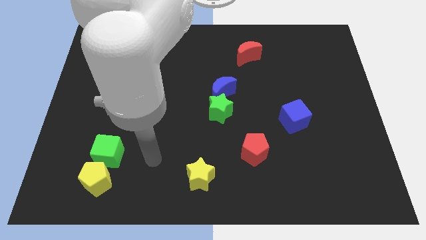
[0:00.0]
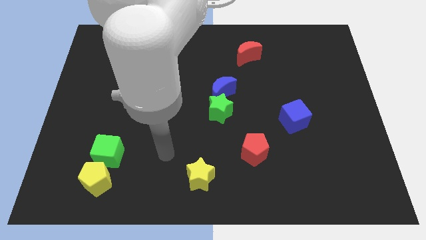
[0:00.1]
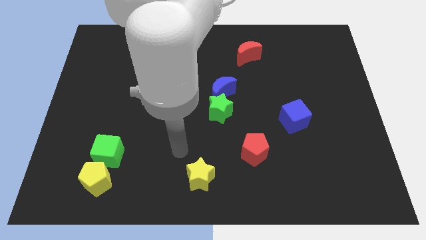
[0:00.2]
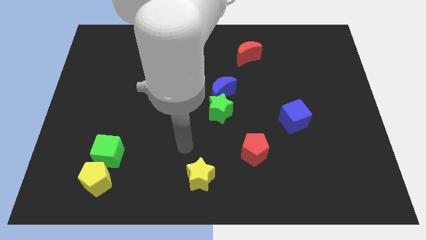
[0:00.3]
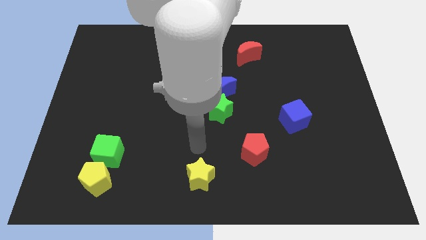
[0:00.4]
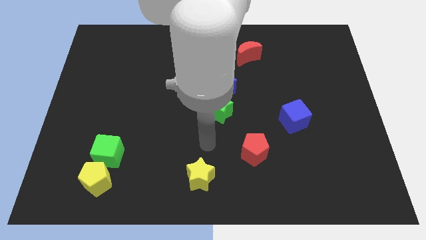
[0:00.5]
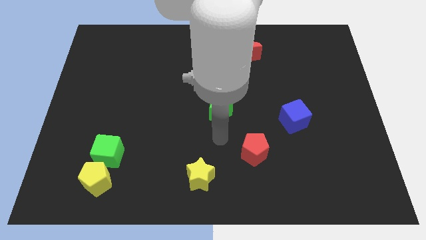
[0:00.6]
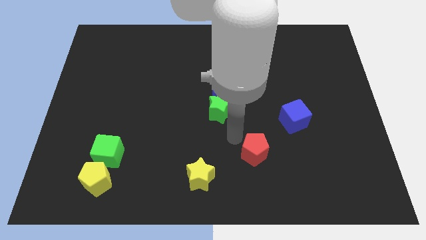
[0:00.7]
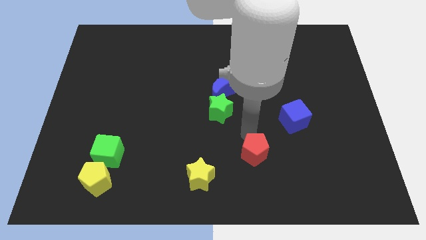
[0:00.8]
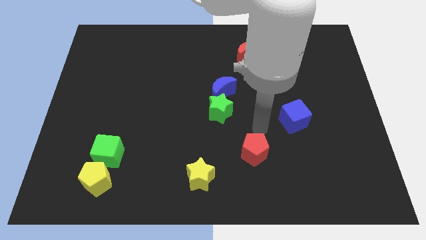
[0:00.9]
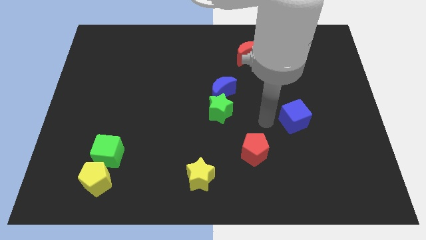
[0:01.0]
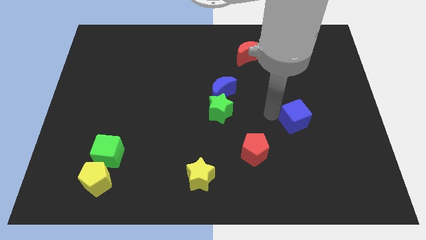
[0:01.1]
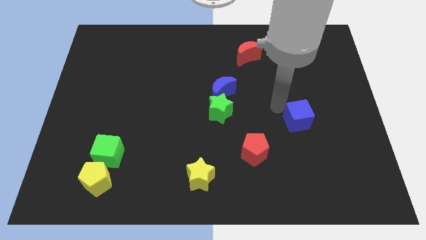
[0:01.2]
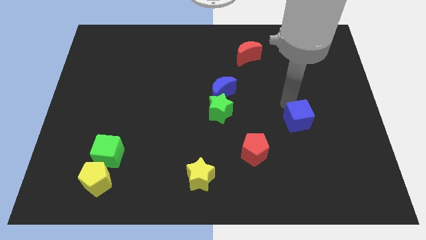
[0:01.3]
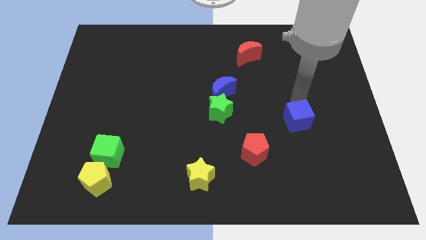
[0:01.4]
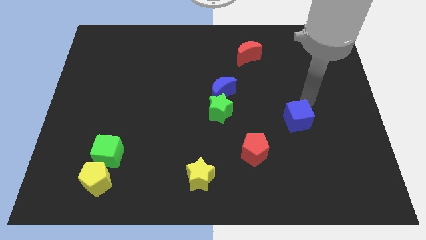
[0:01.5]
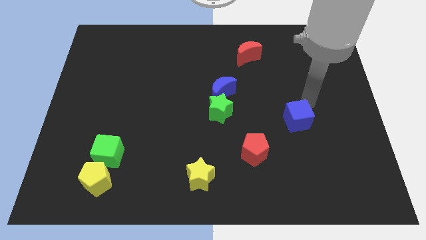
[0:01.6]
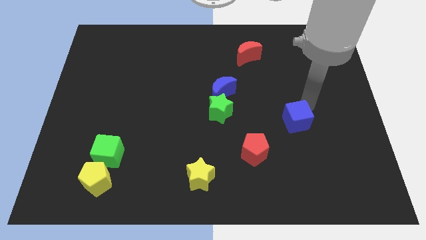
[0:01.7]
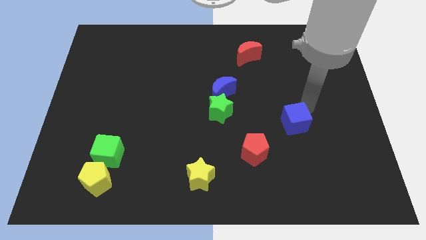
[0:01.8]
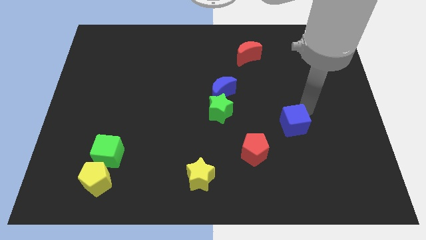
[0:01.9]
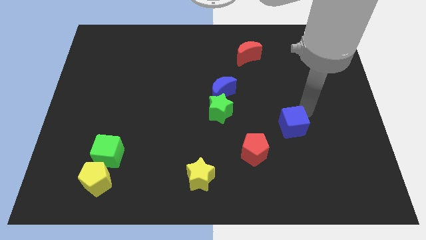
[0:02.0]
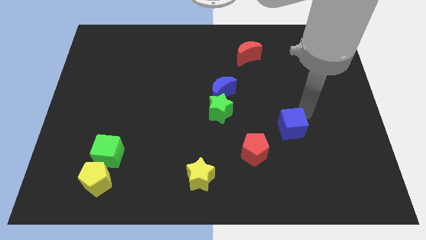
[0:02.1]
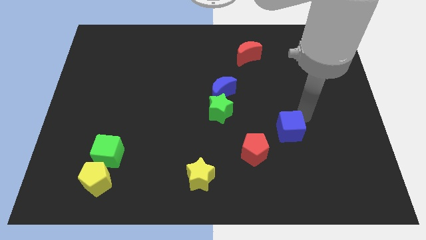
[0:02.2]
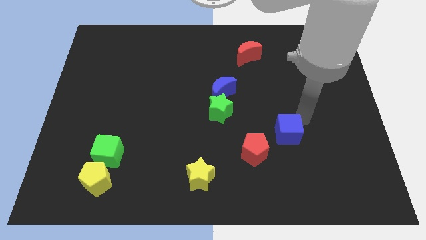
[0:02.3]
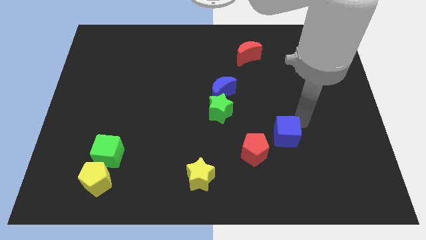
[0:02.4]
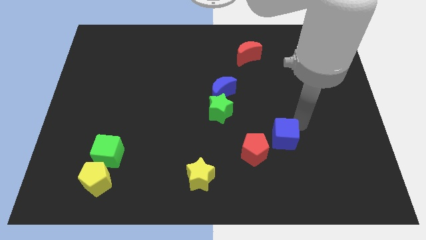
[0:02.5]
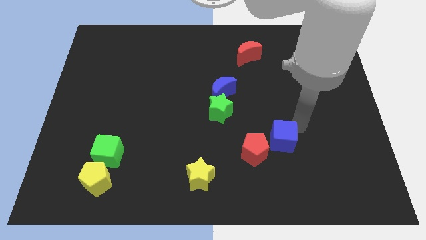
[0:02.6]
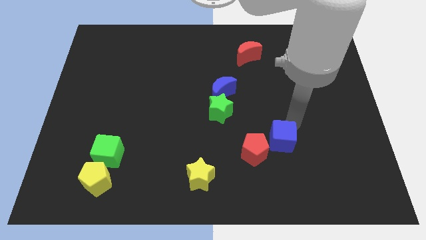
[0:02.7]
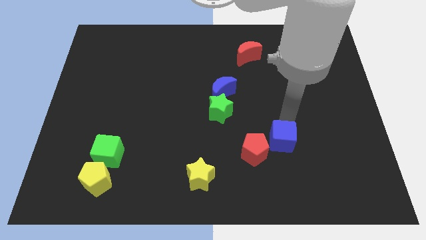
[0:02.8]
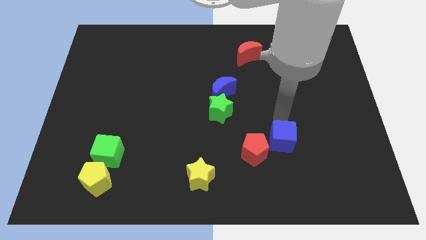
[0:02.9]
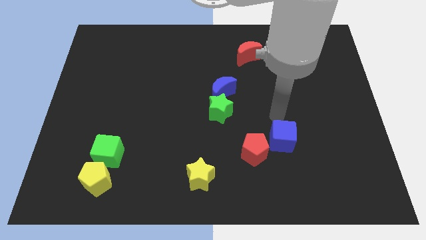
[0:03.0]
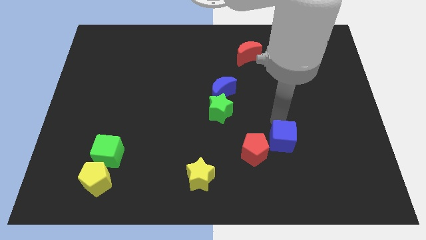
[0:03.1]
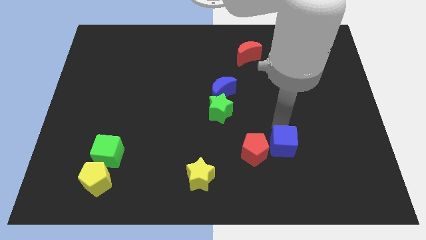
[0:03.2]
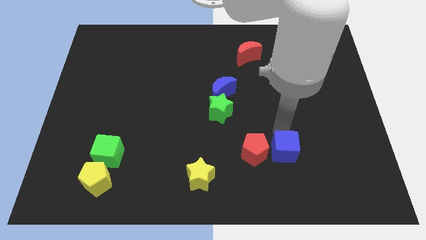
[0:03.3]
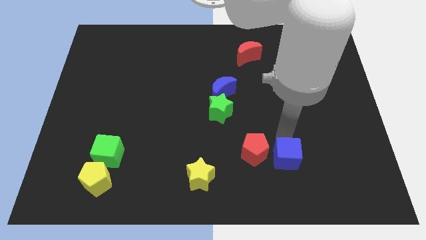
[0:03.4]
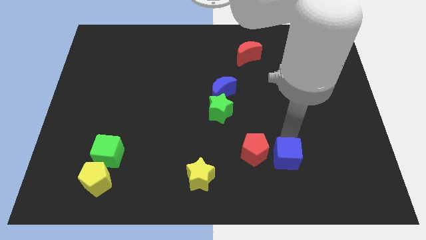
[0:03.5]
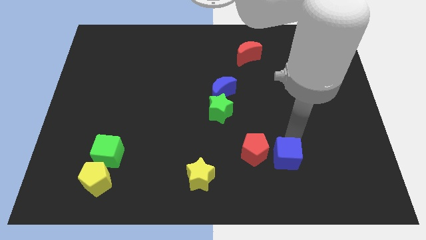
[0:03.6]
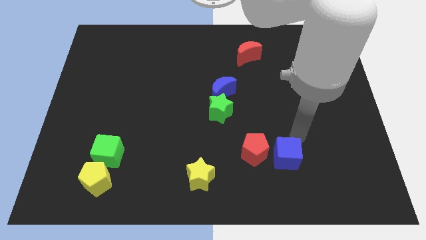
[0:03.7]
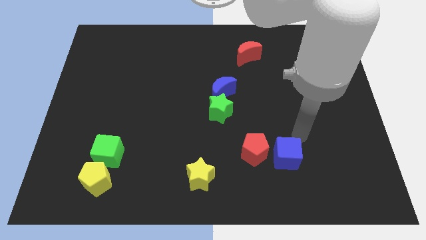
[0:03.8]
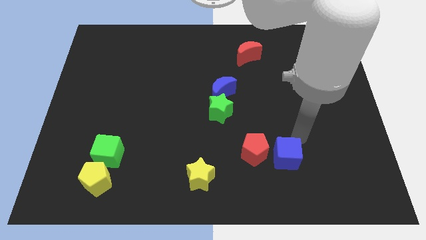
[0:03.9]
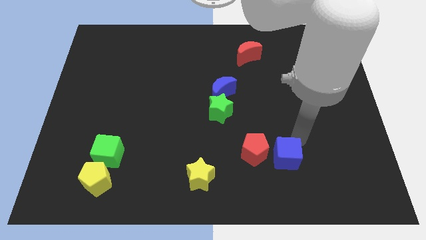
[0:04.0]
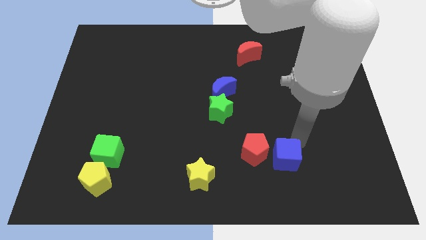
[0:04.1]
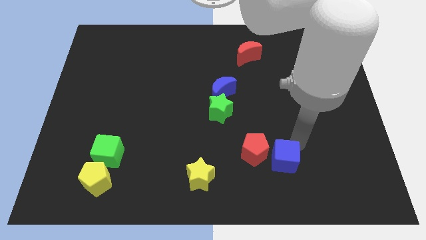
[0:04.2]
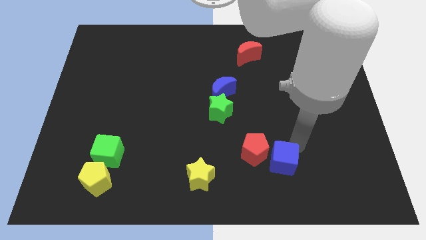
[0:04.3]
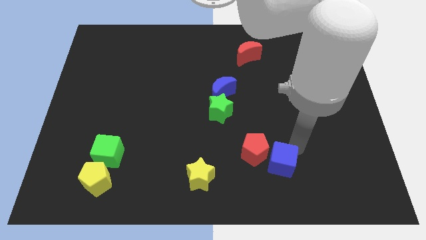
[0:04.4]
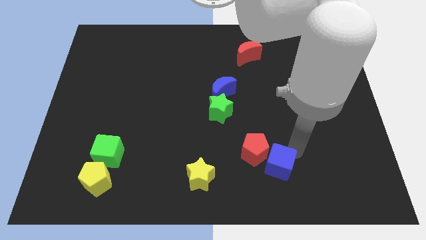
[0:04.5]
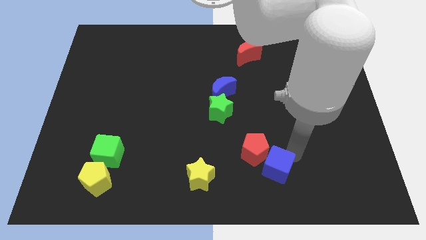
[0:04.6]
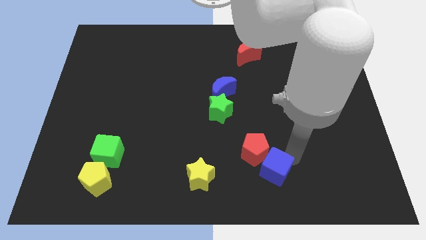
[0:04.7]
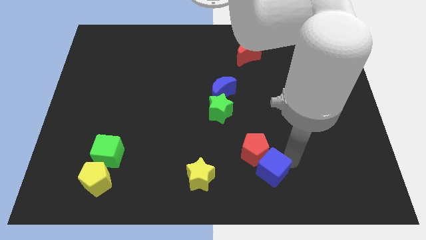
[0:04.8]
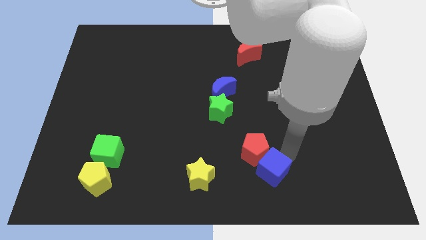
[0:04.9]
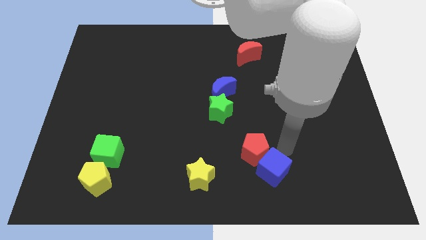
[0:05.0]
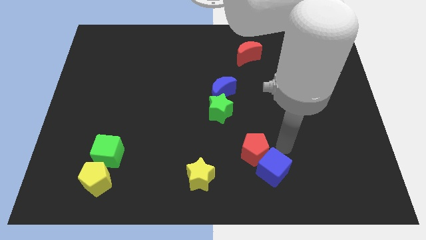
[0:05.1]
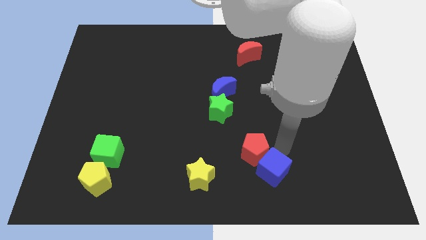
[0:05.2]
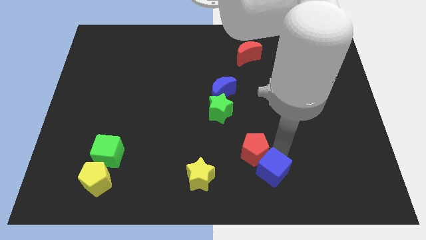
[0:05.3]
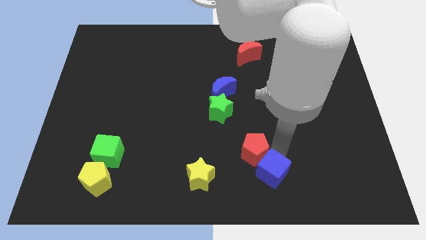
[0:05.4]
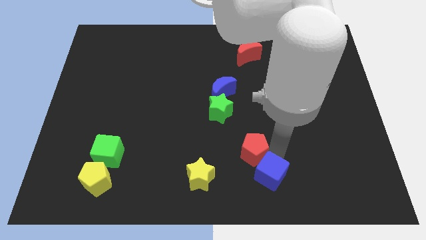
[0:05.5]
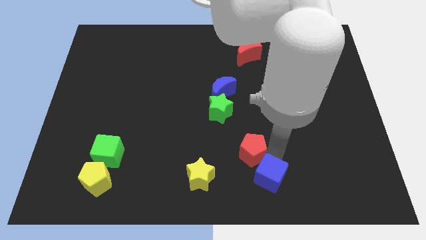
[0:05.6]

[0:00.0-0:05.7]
put the blue cube to the bottom
